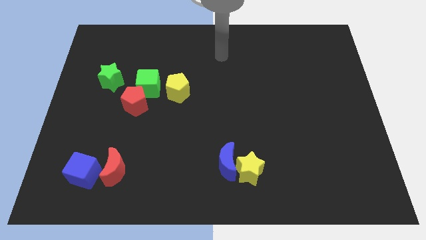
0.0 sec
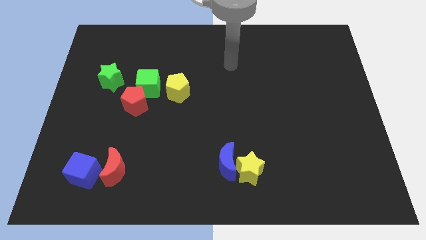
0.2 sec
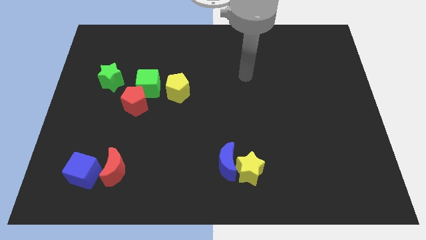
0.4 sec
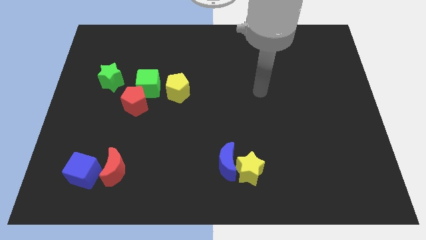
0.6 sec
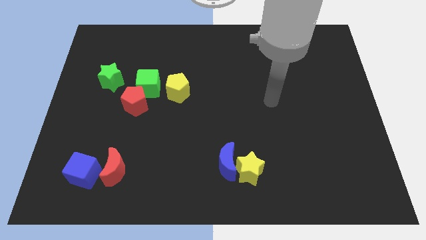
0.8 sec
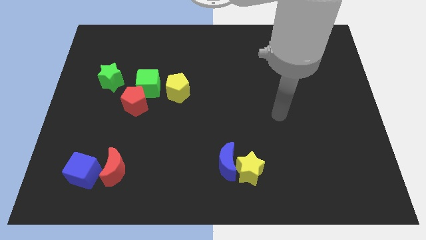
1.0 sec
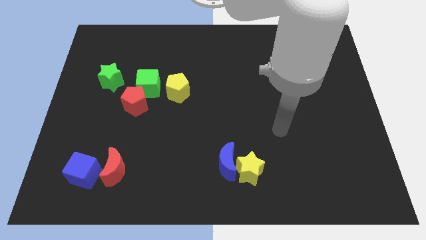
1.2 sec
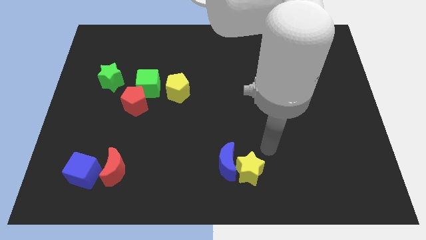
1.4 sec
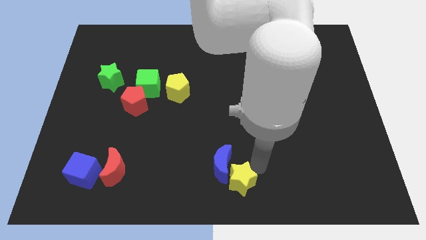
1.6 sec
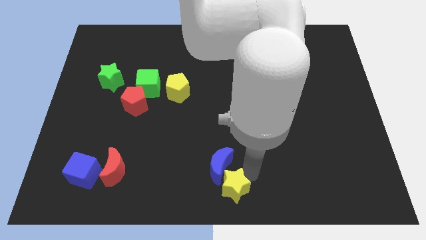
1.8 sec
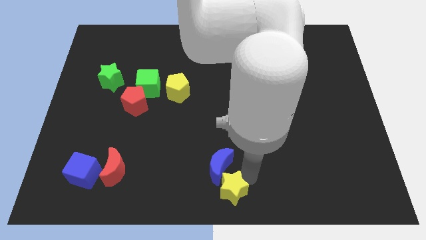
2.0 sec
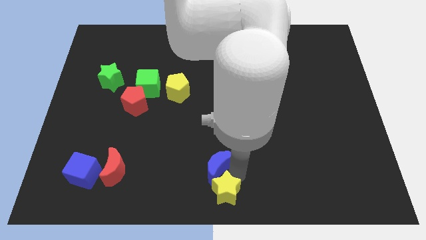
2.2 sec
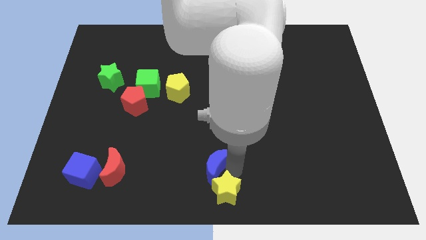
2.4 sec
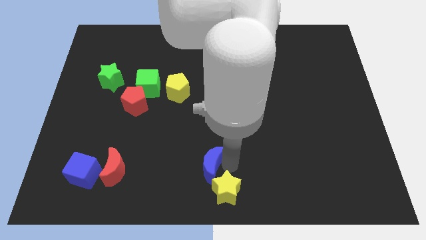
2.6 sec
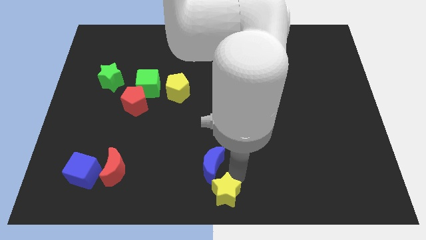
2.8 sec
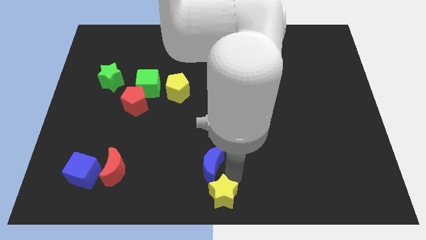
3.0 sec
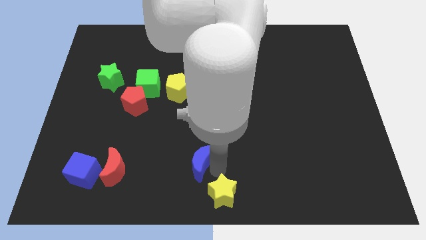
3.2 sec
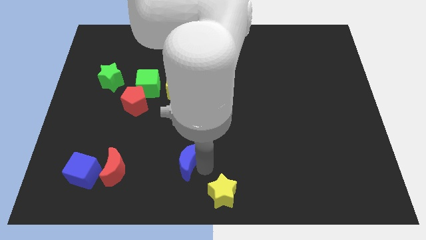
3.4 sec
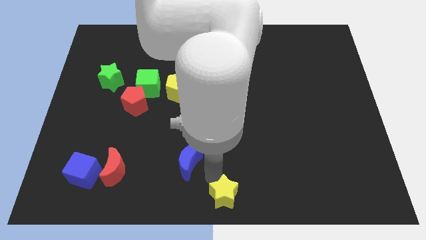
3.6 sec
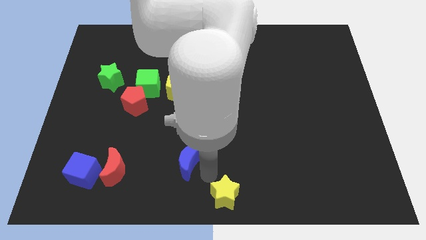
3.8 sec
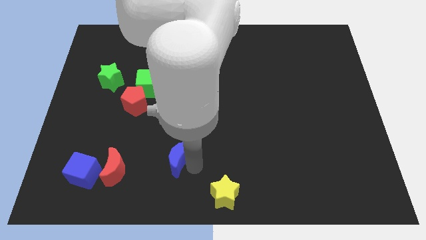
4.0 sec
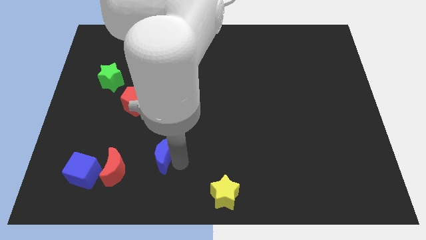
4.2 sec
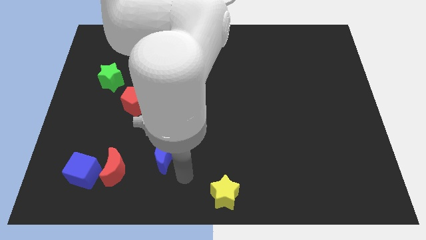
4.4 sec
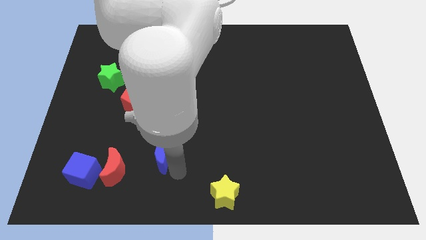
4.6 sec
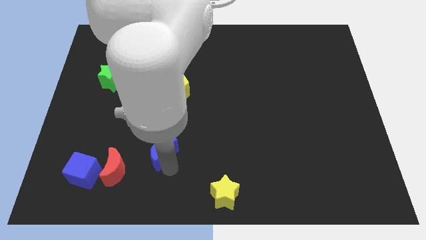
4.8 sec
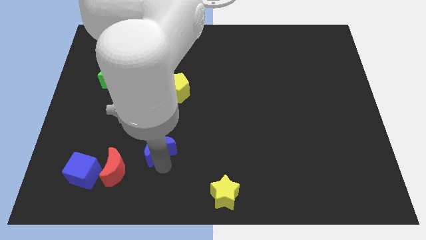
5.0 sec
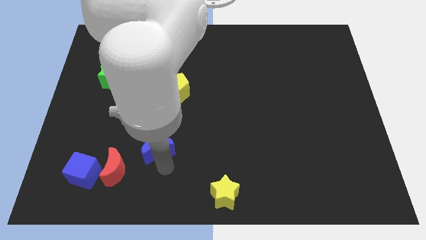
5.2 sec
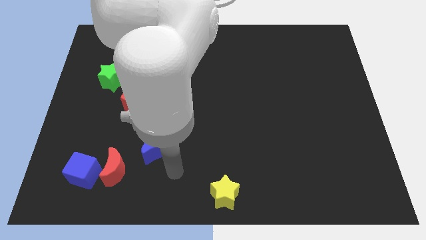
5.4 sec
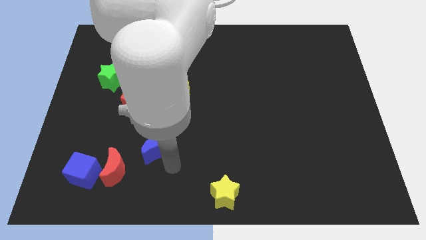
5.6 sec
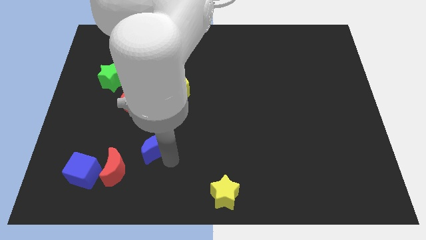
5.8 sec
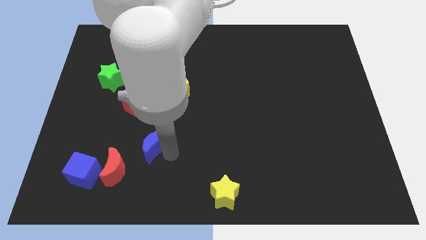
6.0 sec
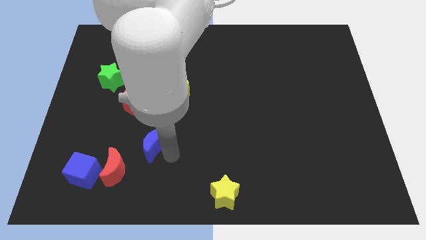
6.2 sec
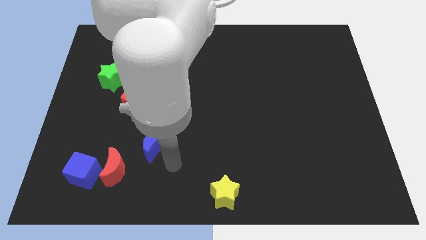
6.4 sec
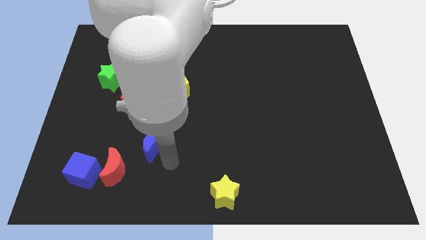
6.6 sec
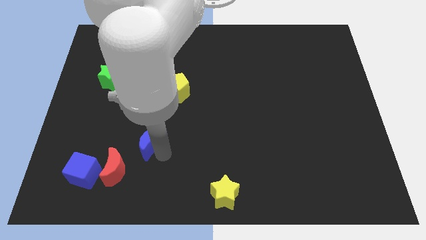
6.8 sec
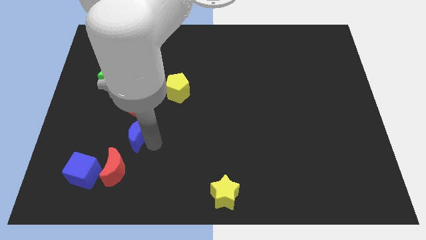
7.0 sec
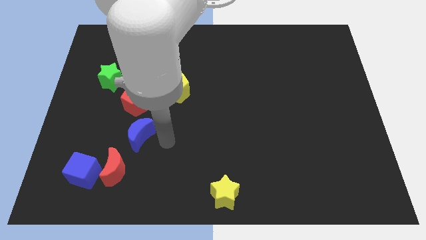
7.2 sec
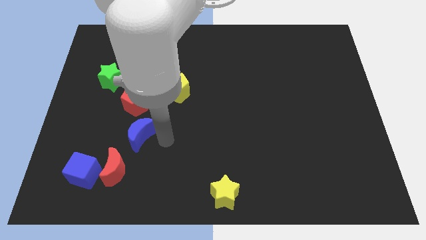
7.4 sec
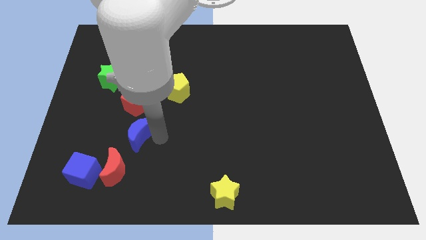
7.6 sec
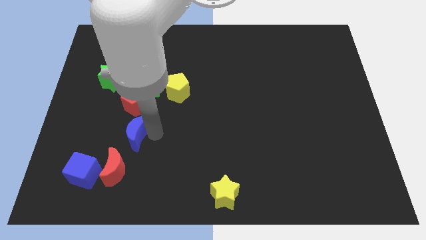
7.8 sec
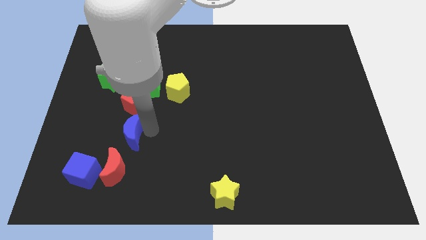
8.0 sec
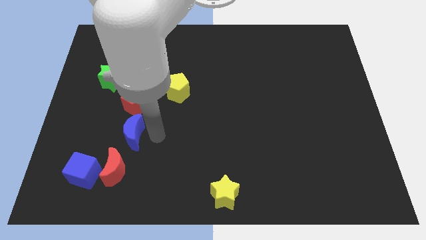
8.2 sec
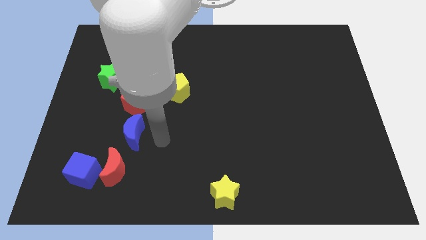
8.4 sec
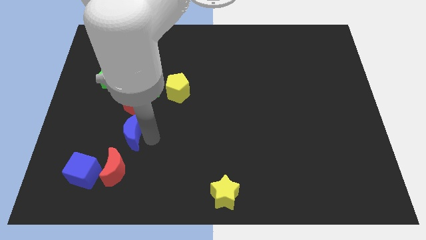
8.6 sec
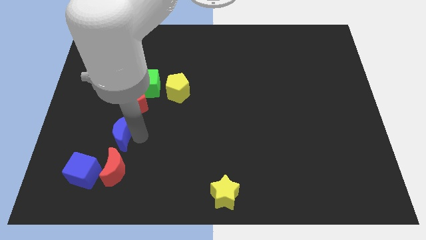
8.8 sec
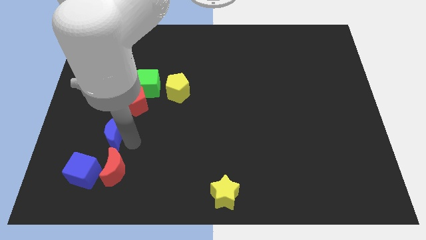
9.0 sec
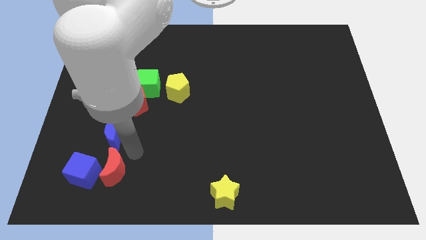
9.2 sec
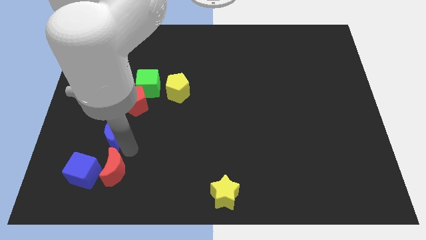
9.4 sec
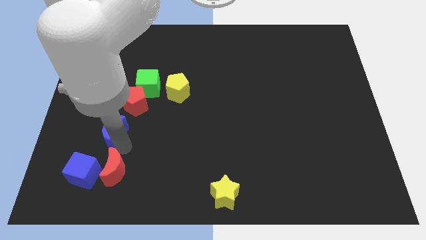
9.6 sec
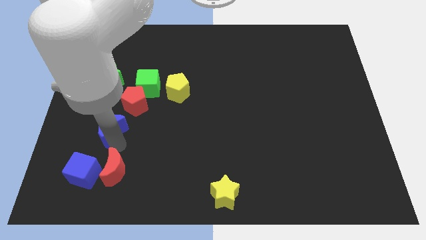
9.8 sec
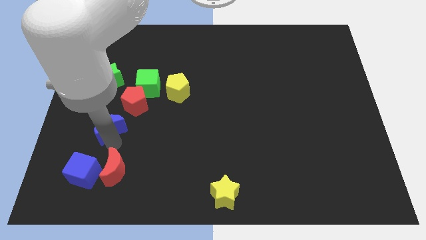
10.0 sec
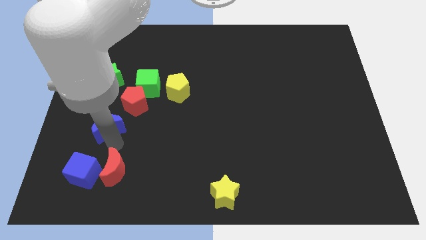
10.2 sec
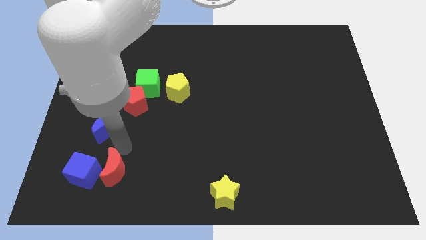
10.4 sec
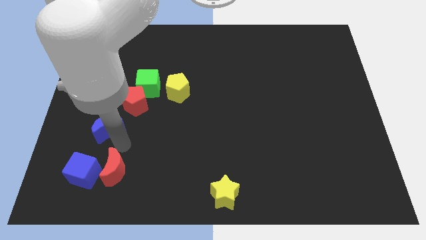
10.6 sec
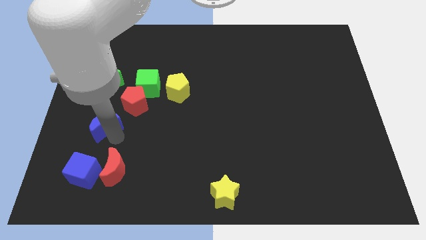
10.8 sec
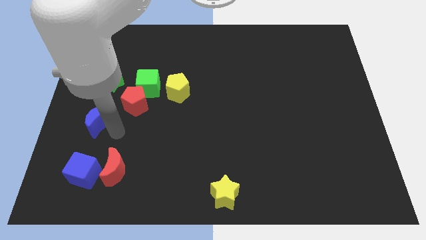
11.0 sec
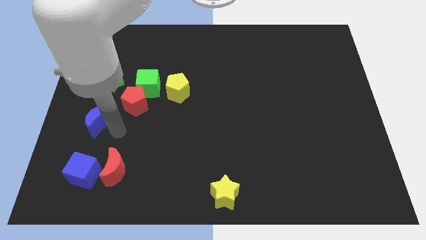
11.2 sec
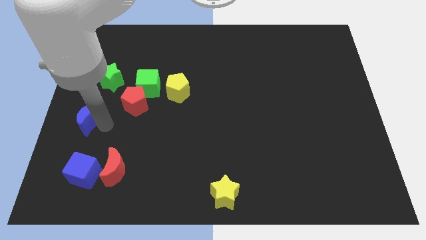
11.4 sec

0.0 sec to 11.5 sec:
move the blue moon to the center left

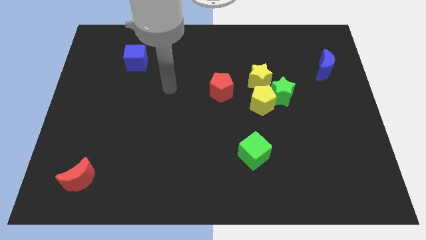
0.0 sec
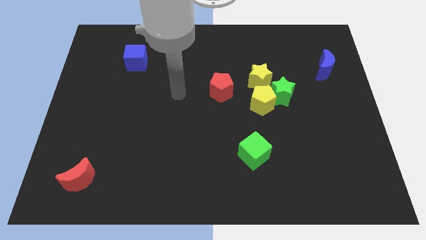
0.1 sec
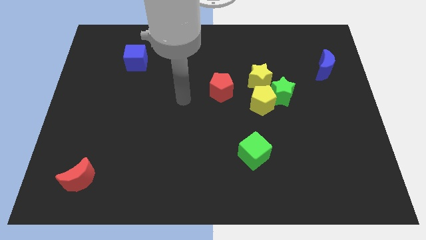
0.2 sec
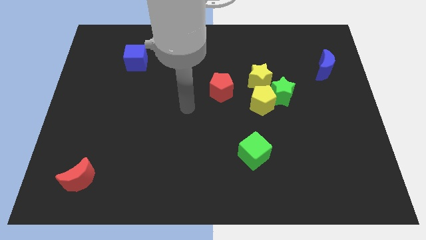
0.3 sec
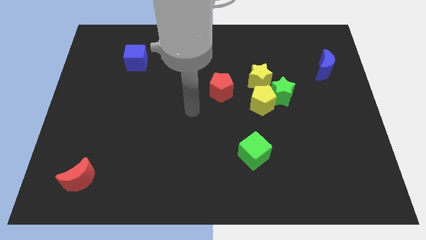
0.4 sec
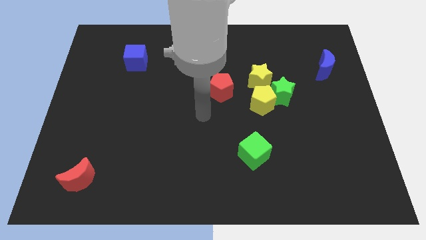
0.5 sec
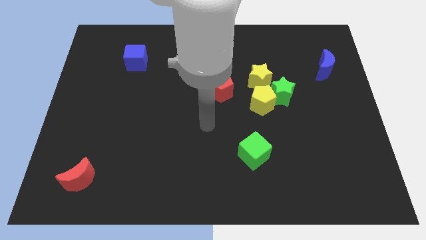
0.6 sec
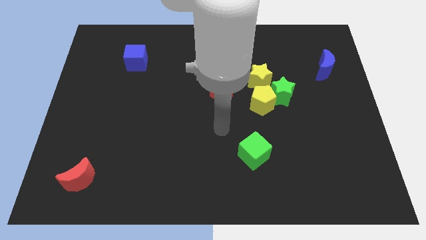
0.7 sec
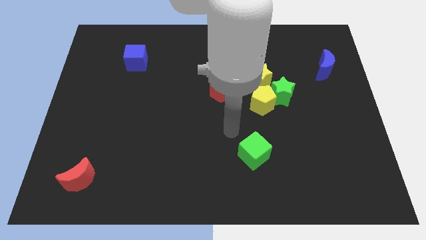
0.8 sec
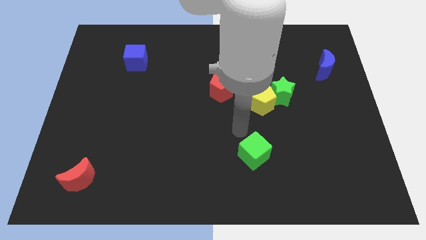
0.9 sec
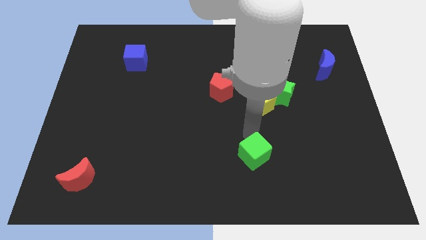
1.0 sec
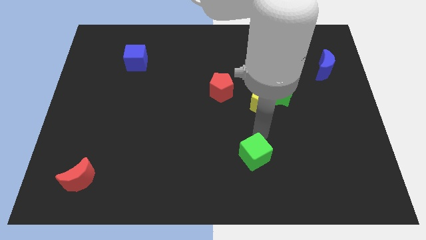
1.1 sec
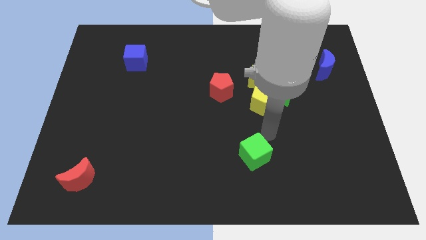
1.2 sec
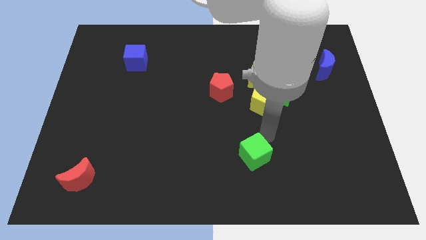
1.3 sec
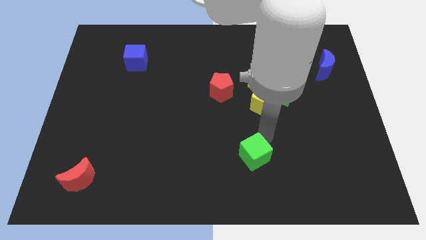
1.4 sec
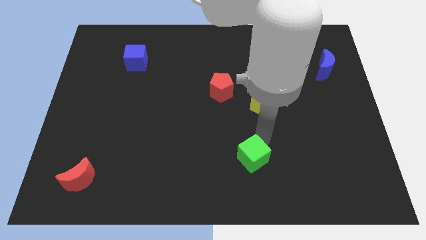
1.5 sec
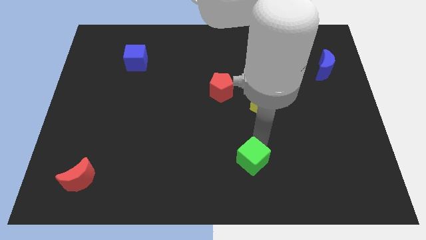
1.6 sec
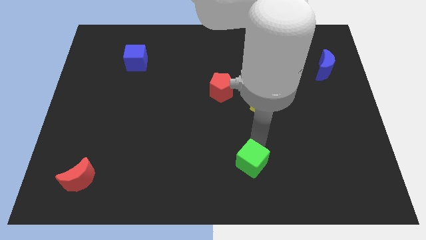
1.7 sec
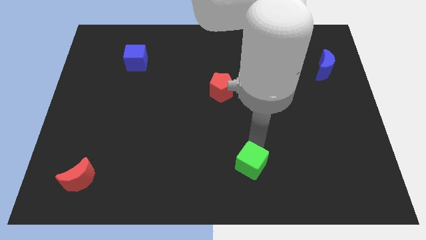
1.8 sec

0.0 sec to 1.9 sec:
move the green cube to the bottom side
